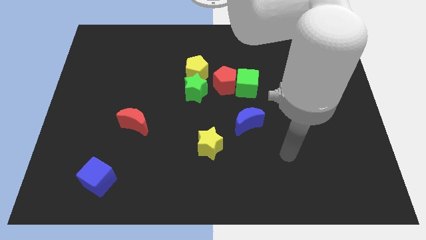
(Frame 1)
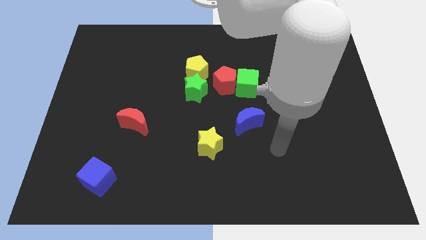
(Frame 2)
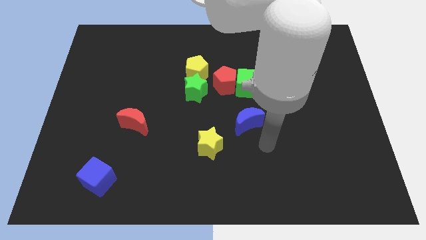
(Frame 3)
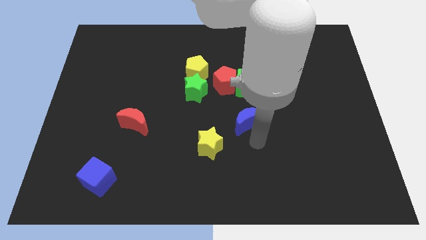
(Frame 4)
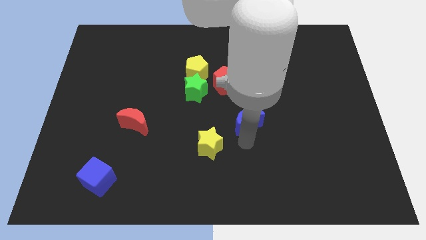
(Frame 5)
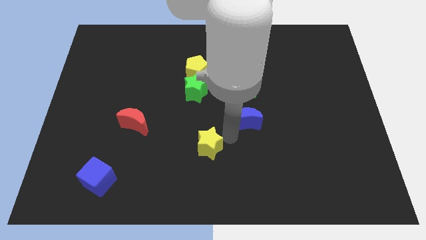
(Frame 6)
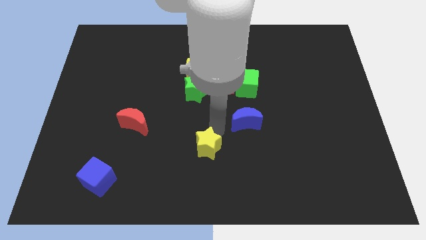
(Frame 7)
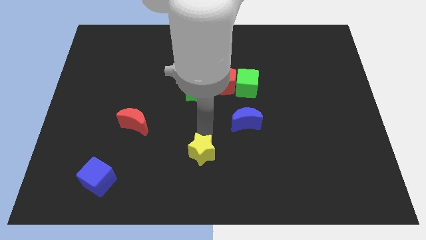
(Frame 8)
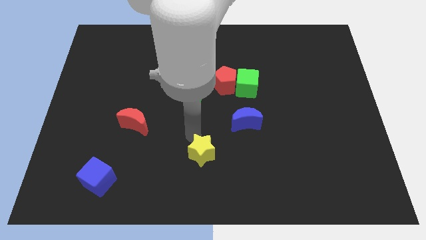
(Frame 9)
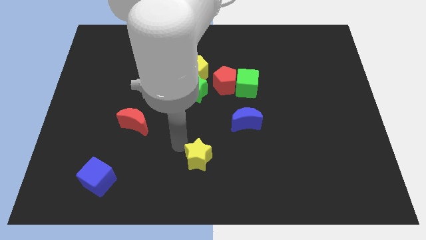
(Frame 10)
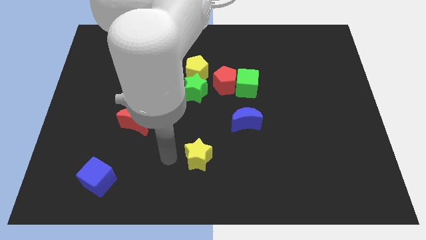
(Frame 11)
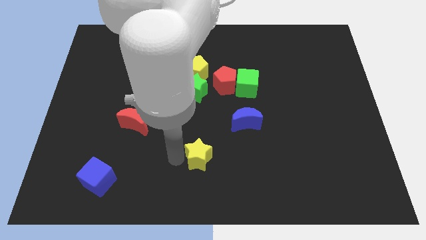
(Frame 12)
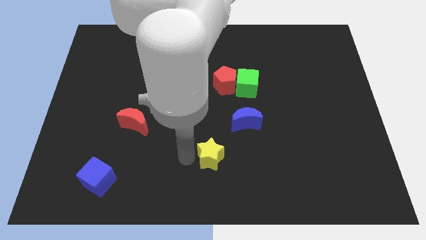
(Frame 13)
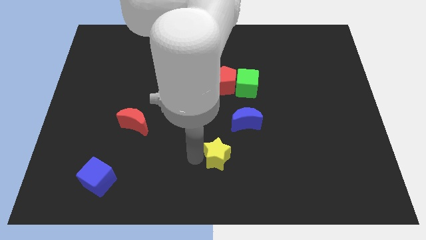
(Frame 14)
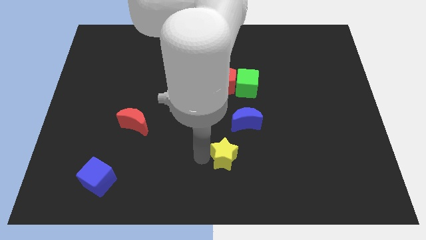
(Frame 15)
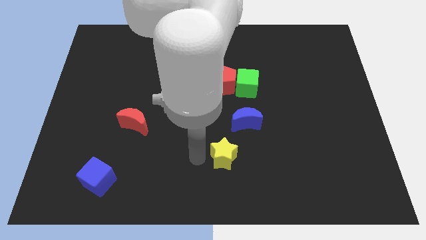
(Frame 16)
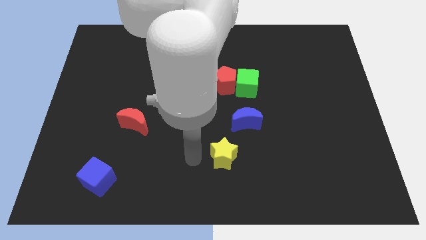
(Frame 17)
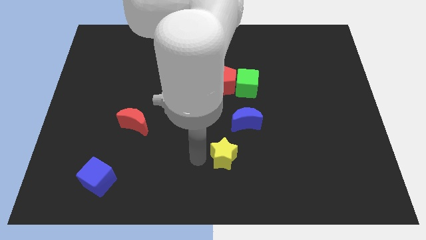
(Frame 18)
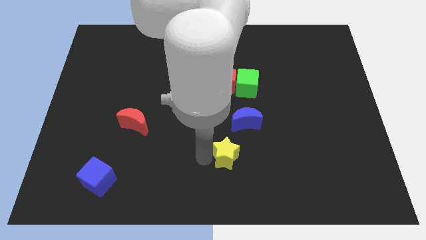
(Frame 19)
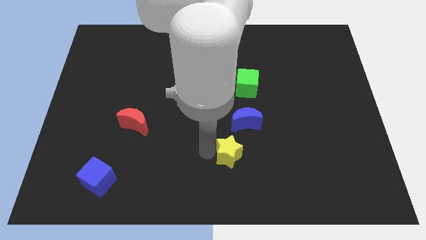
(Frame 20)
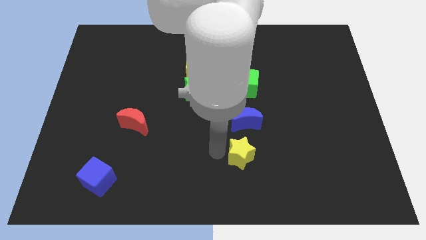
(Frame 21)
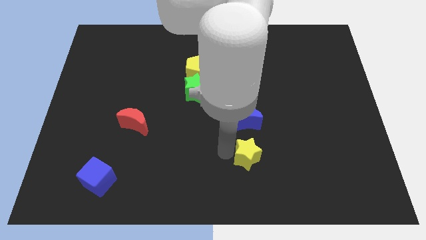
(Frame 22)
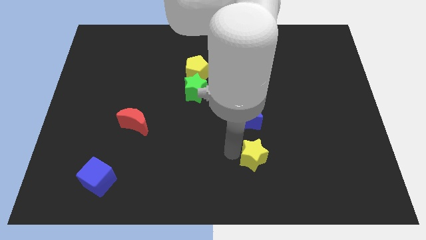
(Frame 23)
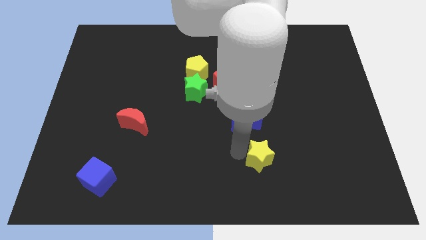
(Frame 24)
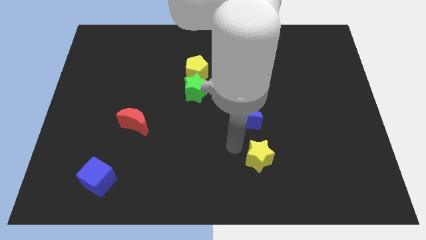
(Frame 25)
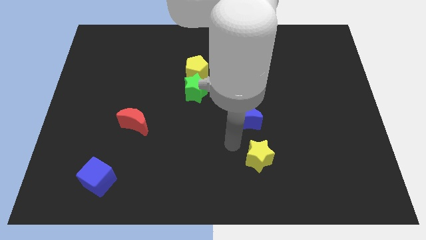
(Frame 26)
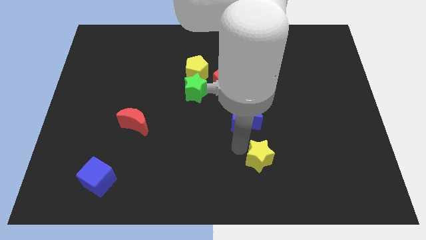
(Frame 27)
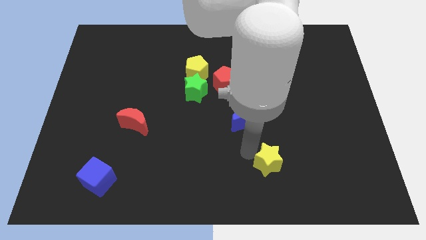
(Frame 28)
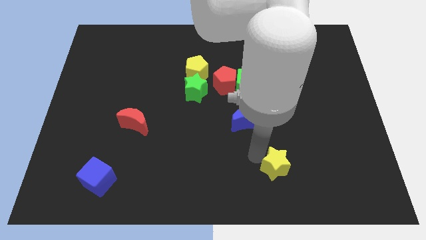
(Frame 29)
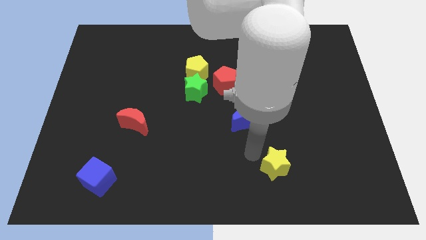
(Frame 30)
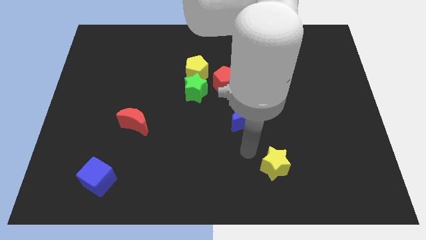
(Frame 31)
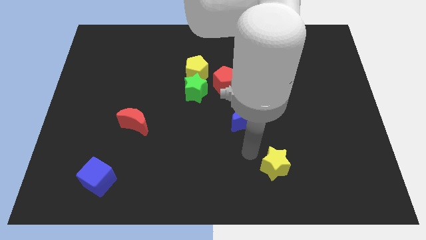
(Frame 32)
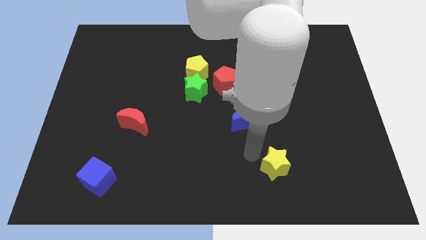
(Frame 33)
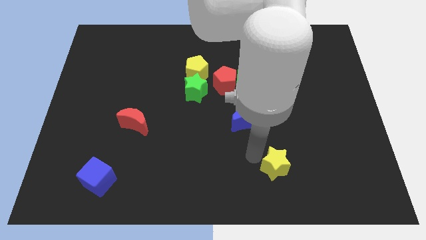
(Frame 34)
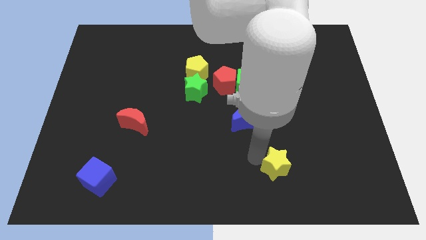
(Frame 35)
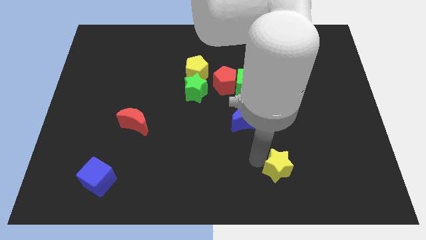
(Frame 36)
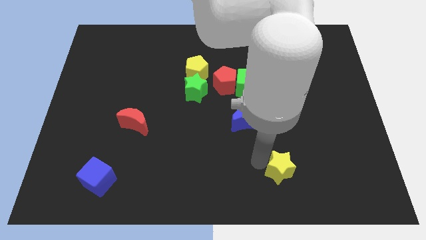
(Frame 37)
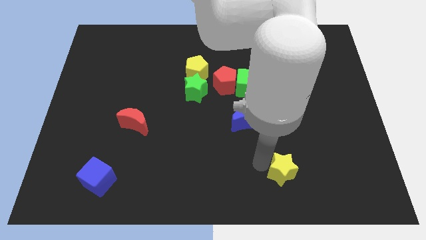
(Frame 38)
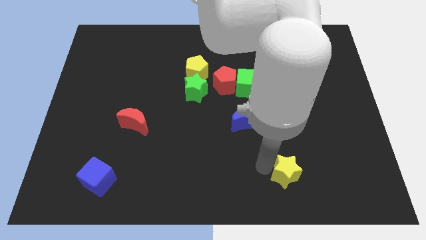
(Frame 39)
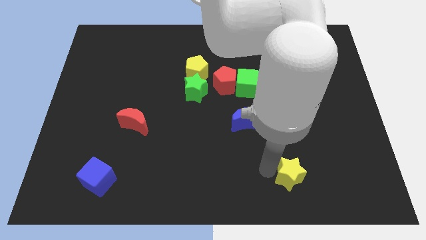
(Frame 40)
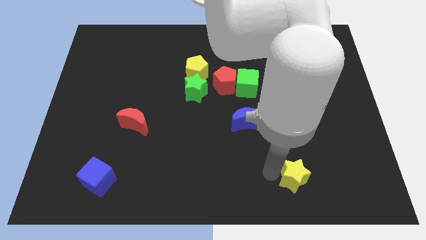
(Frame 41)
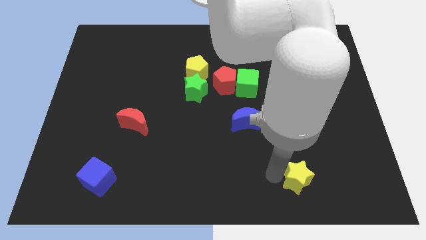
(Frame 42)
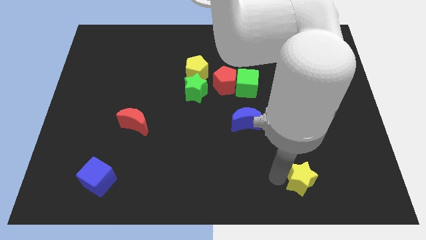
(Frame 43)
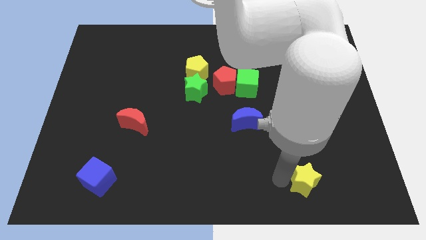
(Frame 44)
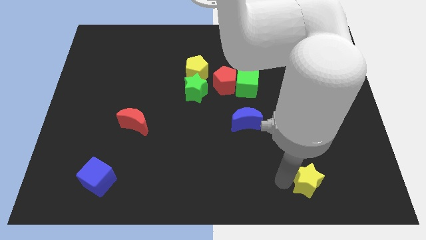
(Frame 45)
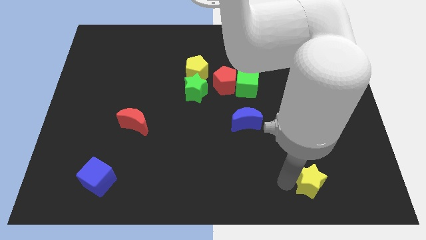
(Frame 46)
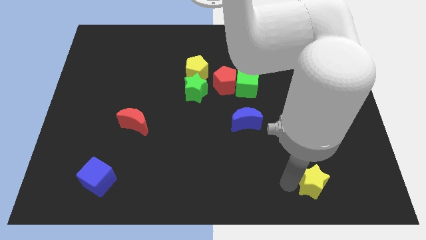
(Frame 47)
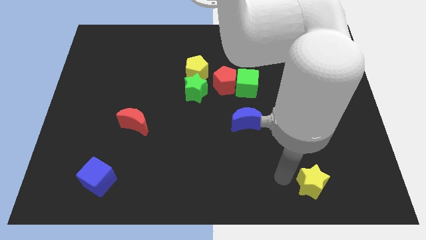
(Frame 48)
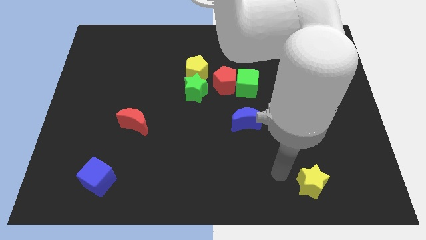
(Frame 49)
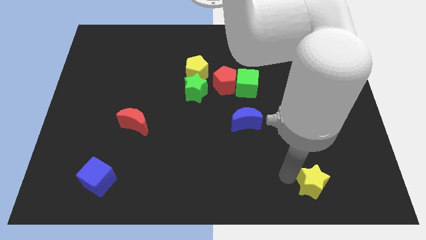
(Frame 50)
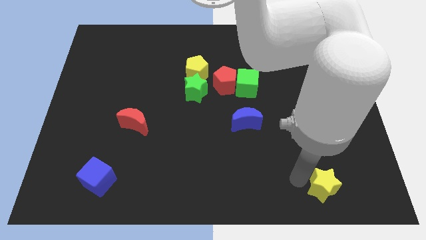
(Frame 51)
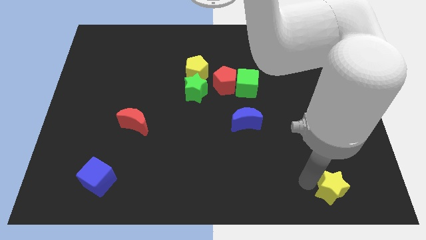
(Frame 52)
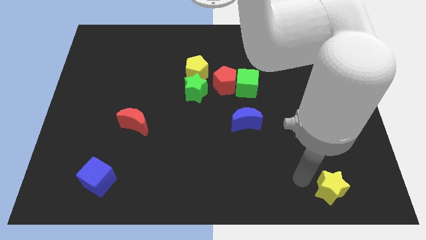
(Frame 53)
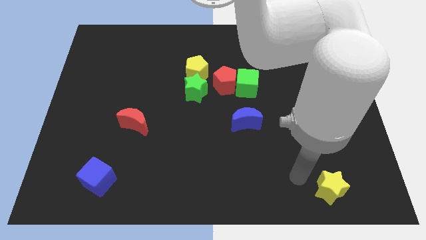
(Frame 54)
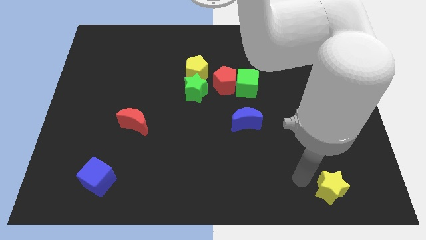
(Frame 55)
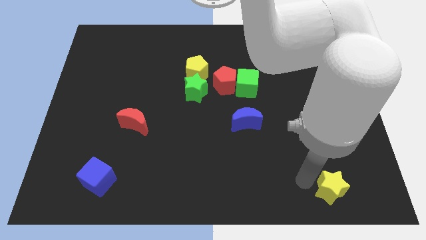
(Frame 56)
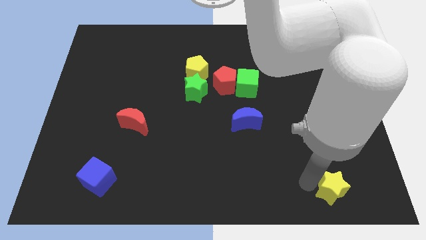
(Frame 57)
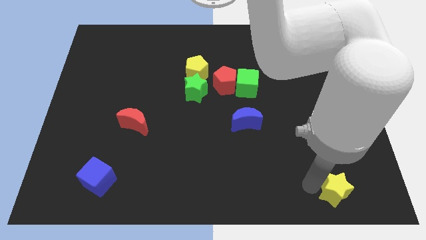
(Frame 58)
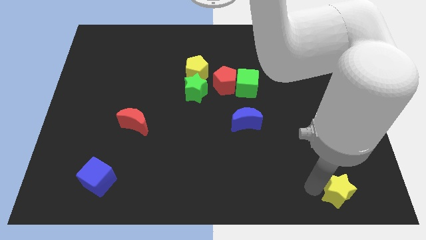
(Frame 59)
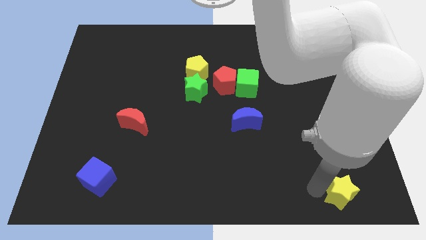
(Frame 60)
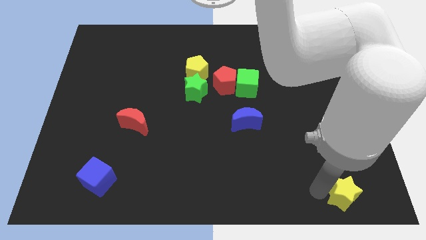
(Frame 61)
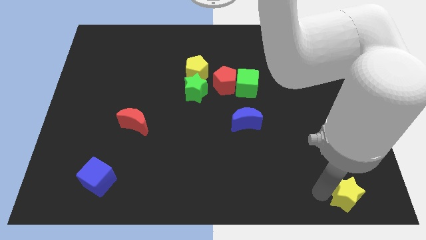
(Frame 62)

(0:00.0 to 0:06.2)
put the yellow star to the bottom right corner
